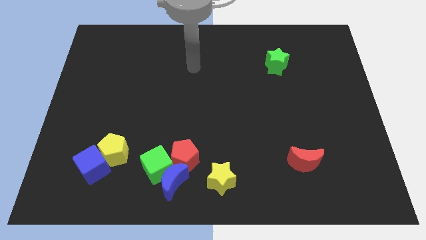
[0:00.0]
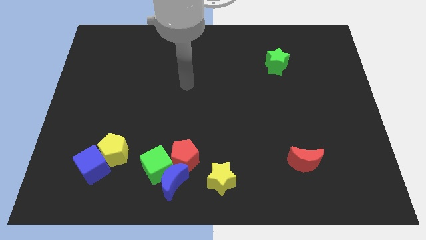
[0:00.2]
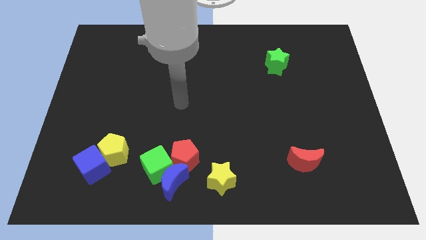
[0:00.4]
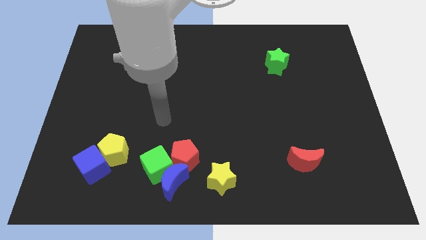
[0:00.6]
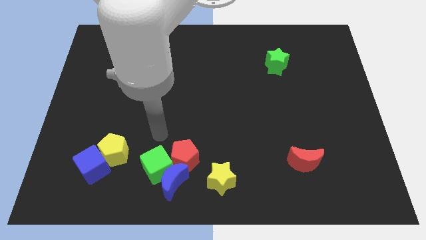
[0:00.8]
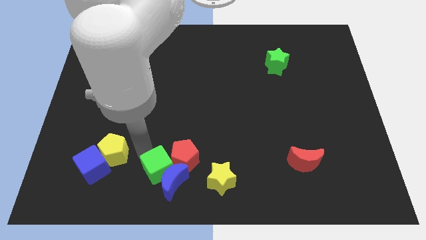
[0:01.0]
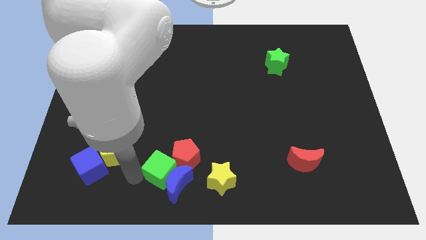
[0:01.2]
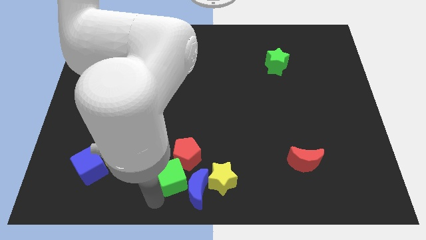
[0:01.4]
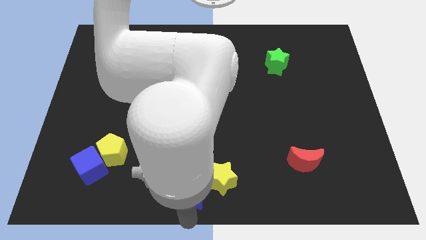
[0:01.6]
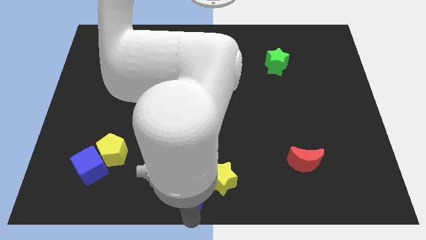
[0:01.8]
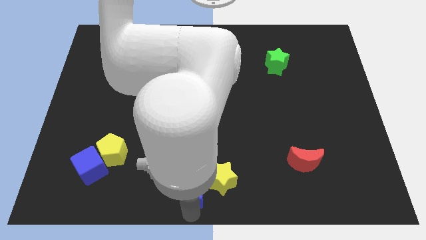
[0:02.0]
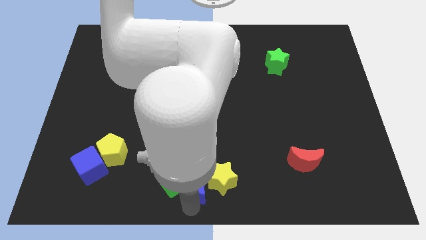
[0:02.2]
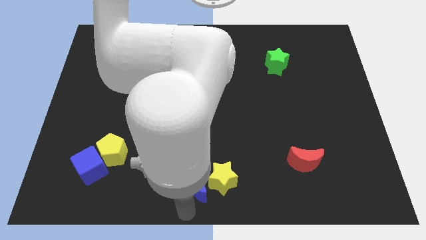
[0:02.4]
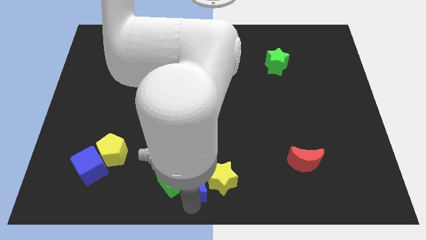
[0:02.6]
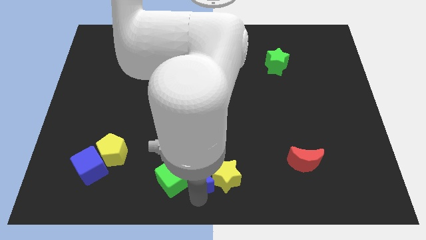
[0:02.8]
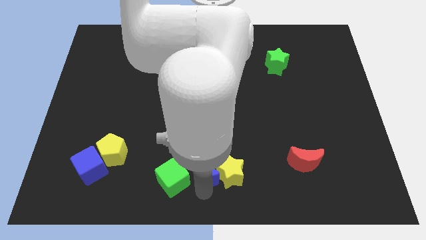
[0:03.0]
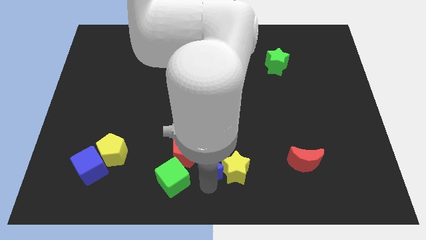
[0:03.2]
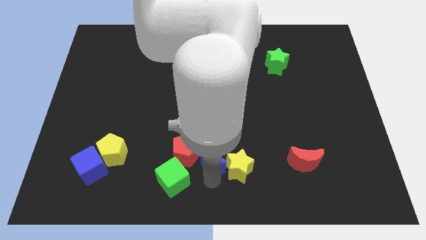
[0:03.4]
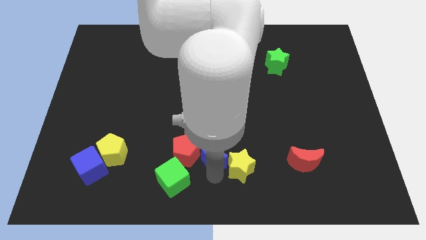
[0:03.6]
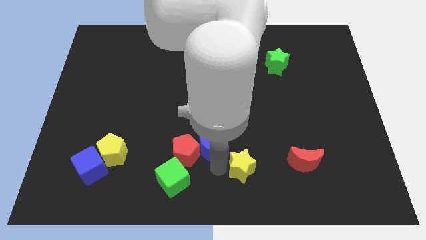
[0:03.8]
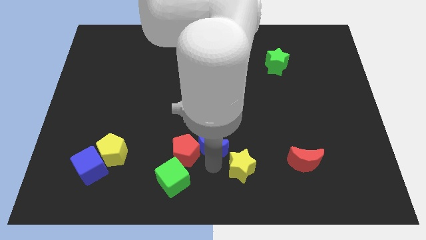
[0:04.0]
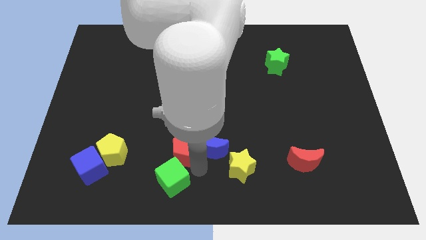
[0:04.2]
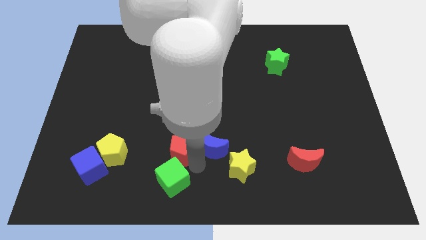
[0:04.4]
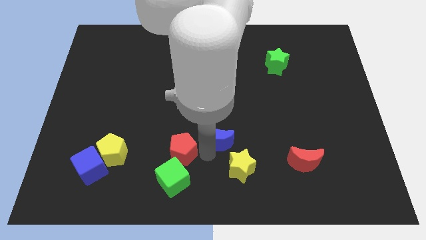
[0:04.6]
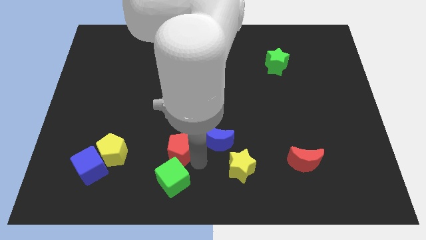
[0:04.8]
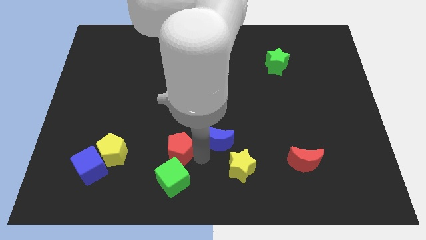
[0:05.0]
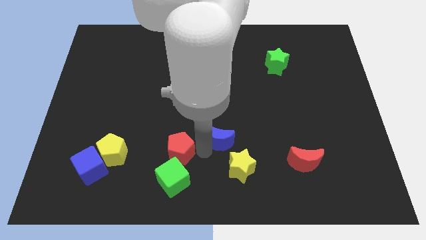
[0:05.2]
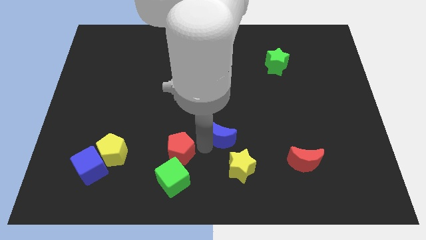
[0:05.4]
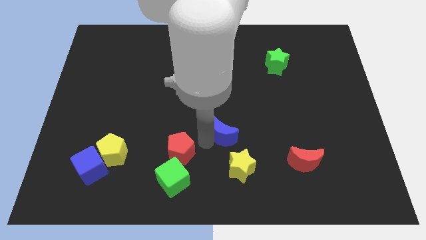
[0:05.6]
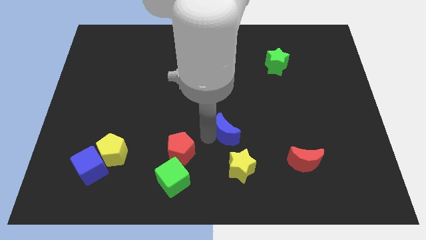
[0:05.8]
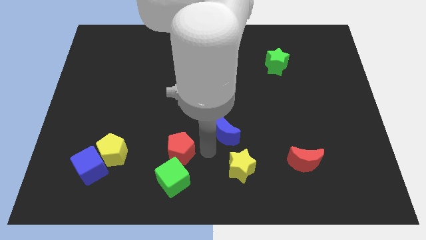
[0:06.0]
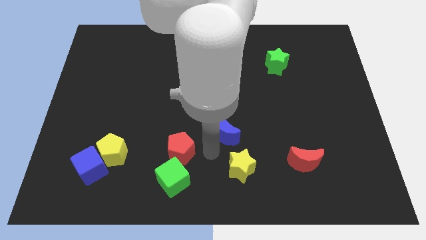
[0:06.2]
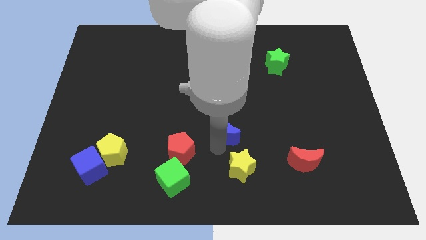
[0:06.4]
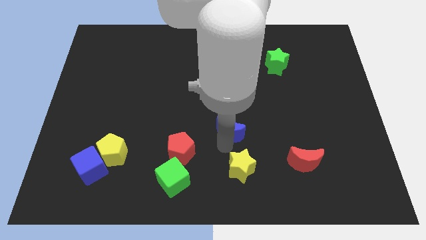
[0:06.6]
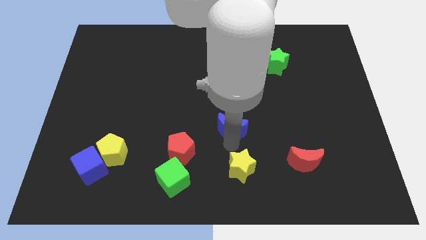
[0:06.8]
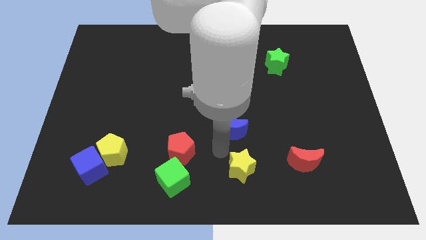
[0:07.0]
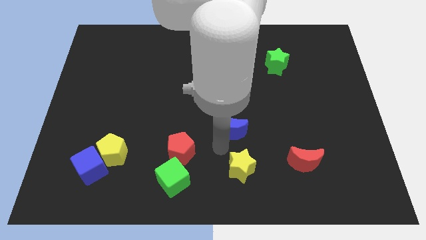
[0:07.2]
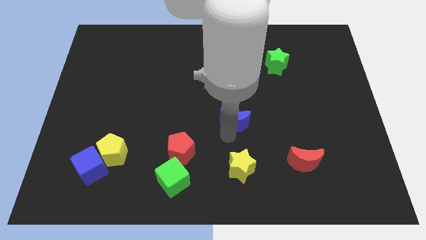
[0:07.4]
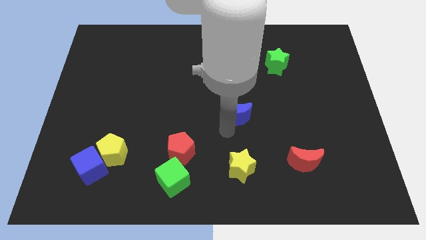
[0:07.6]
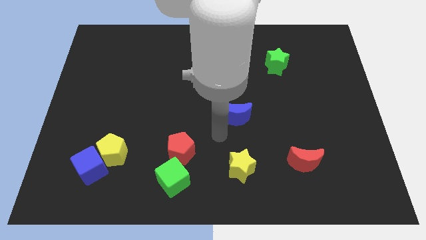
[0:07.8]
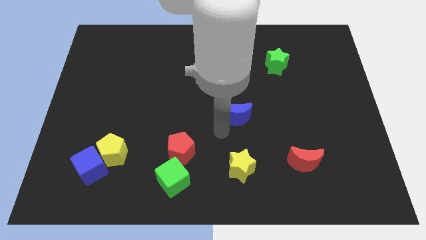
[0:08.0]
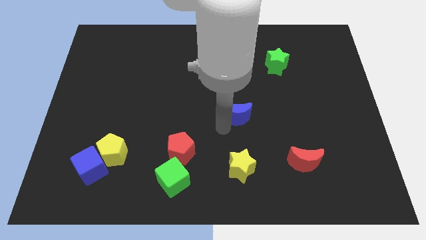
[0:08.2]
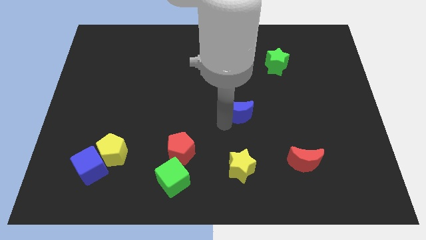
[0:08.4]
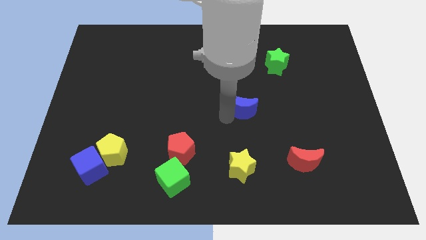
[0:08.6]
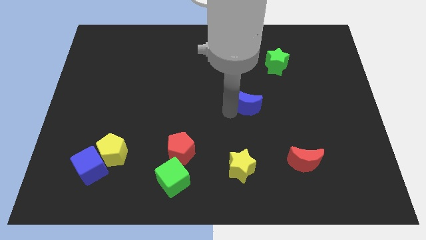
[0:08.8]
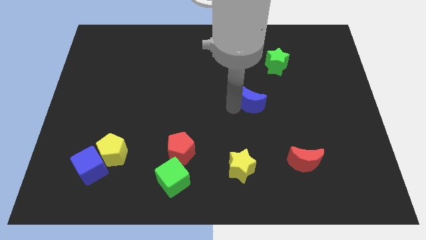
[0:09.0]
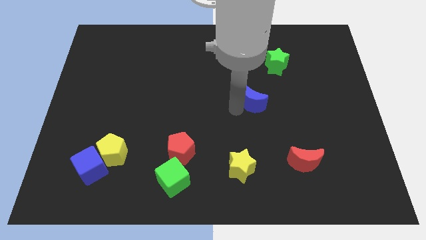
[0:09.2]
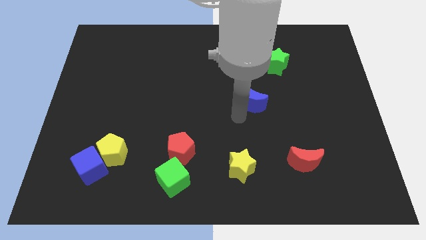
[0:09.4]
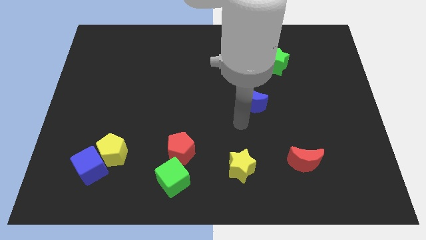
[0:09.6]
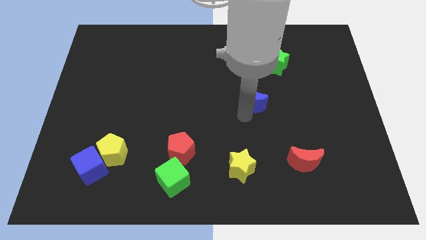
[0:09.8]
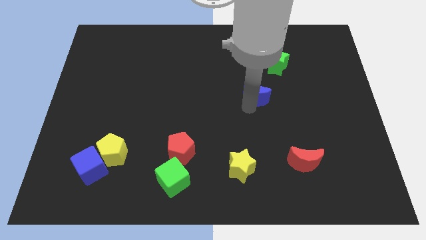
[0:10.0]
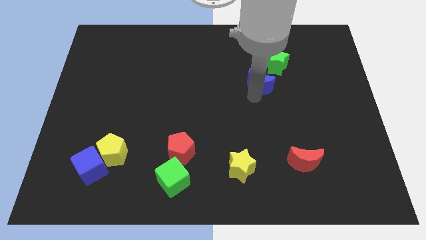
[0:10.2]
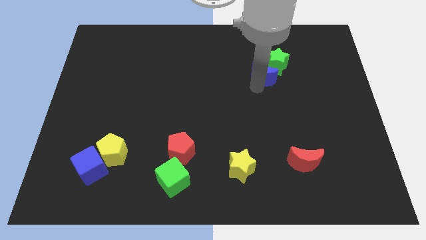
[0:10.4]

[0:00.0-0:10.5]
push the blue moon to the green star

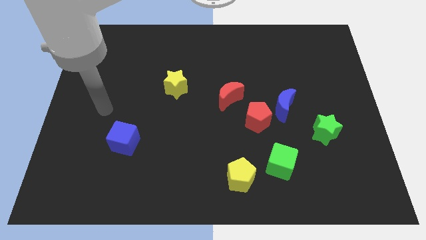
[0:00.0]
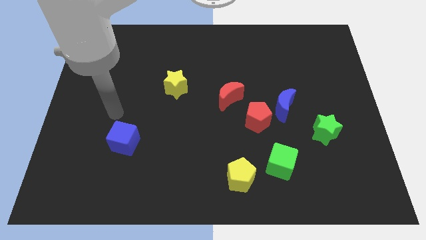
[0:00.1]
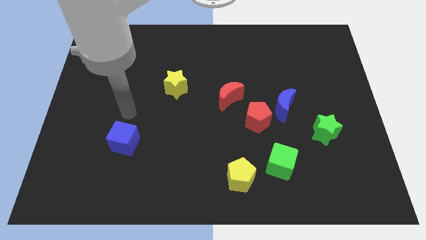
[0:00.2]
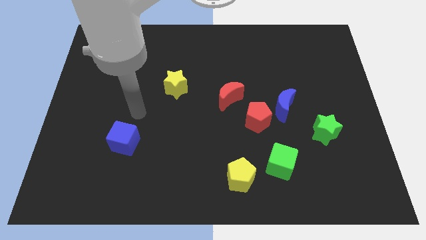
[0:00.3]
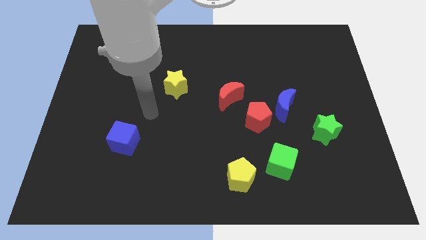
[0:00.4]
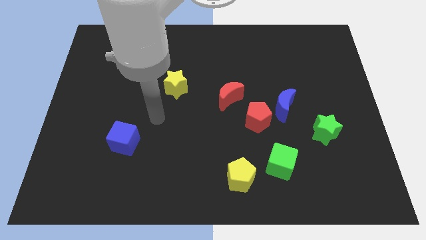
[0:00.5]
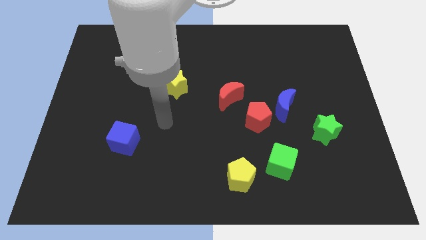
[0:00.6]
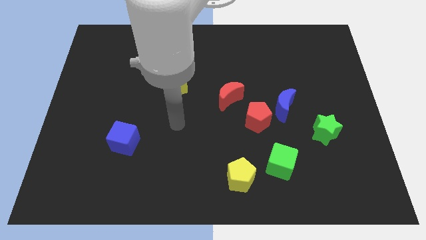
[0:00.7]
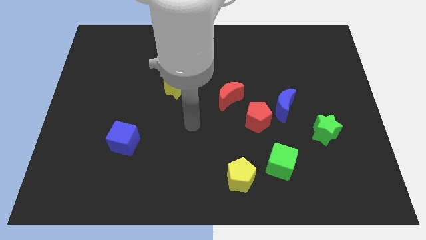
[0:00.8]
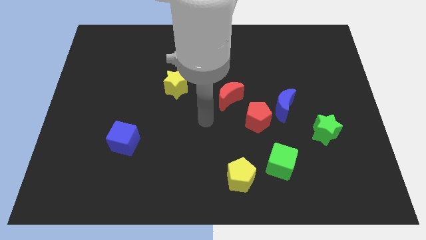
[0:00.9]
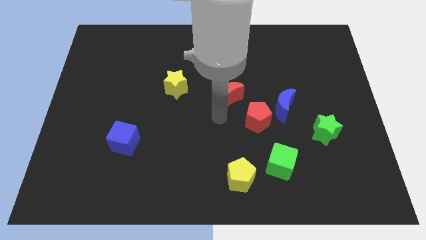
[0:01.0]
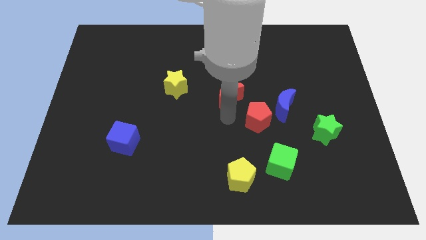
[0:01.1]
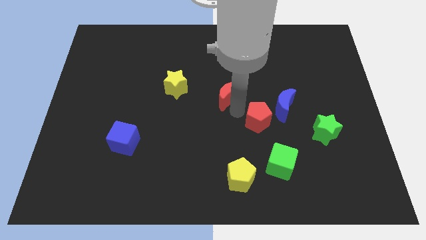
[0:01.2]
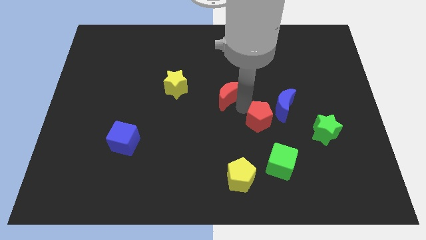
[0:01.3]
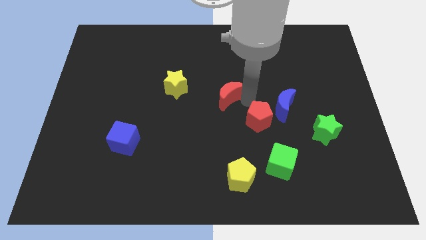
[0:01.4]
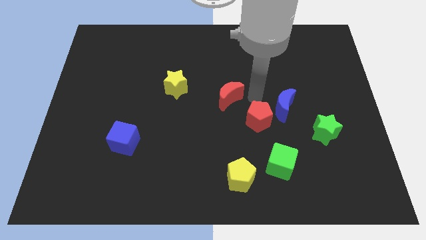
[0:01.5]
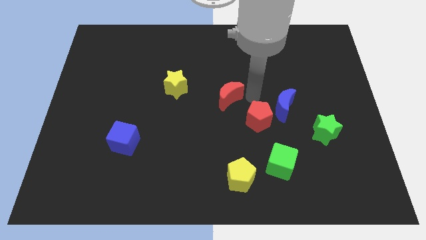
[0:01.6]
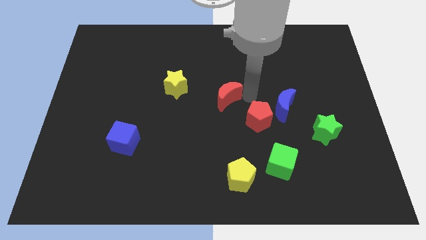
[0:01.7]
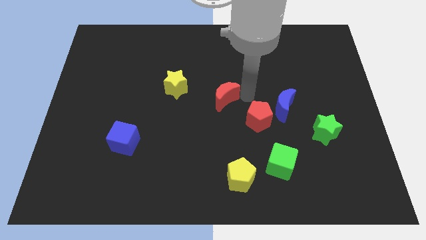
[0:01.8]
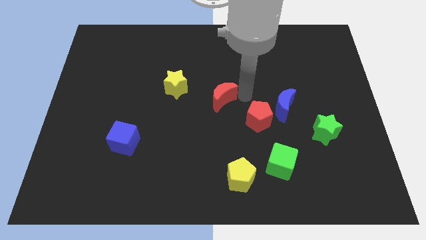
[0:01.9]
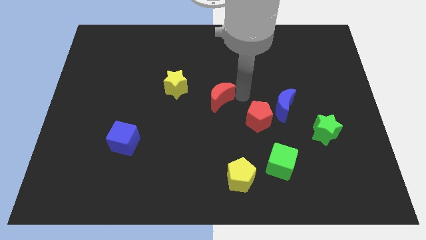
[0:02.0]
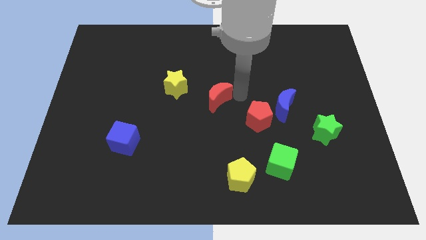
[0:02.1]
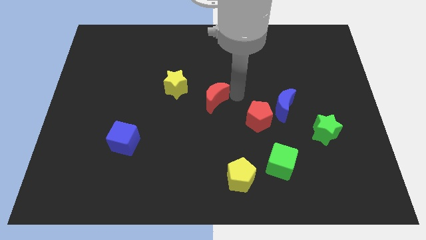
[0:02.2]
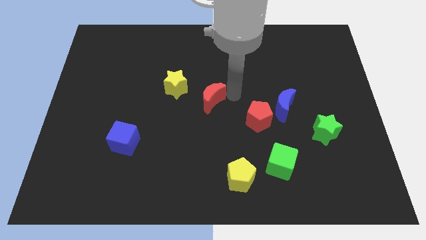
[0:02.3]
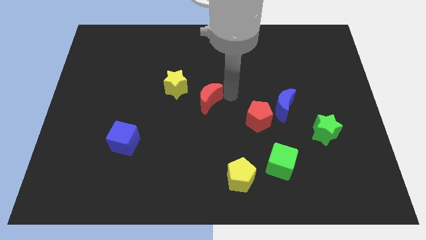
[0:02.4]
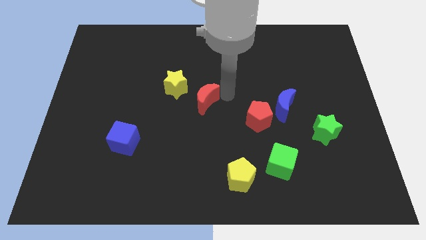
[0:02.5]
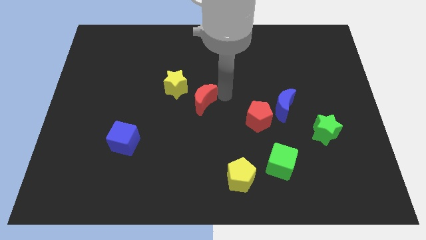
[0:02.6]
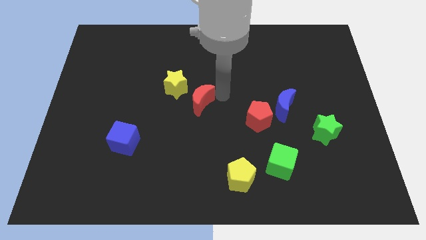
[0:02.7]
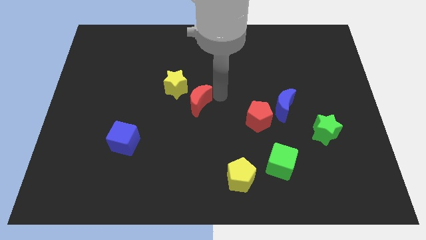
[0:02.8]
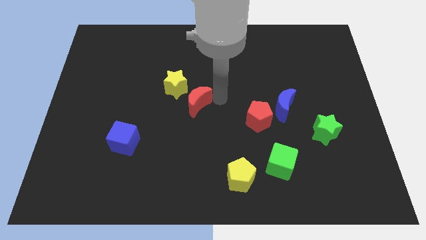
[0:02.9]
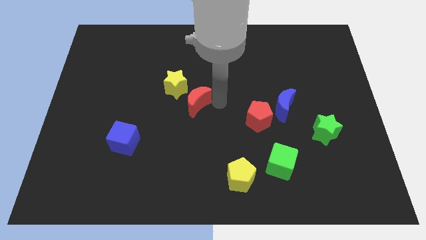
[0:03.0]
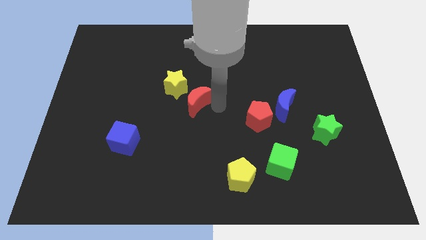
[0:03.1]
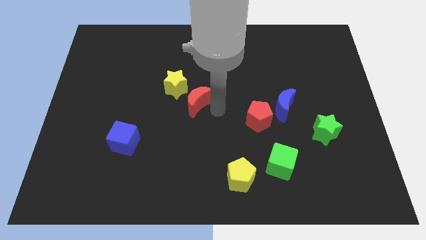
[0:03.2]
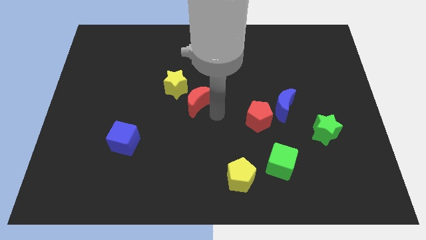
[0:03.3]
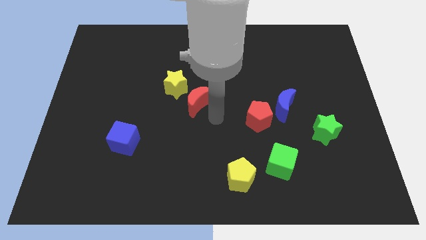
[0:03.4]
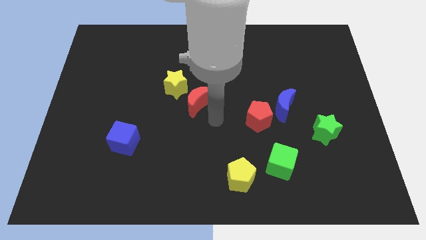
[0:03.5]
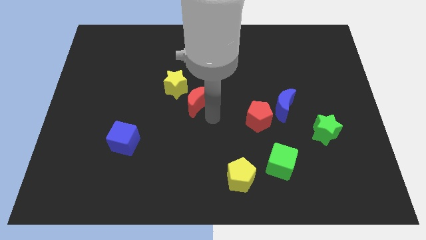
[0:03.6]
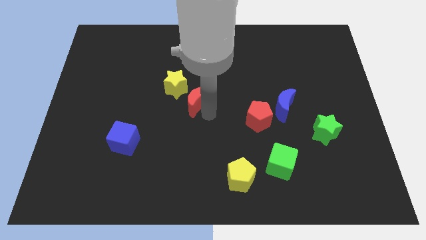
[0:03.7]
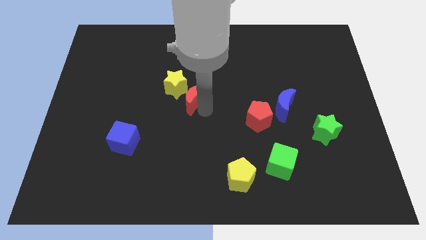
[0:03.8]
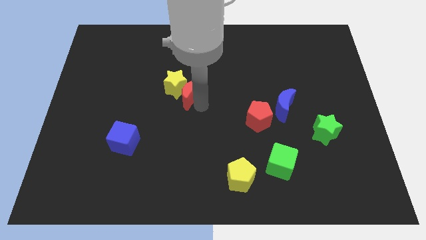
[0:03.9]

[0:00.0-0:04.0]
move the red moon close to the yellow star
